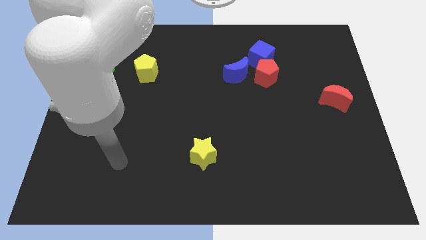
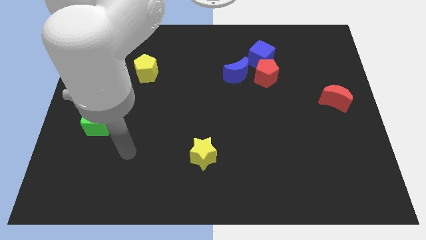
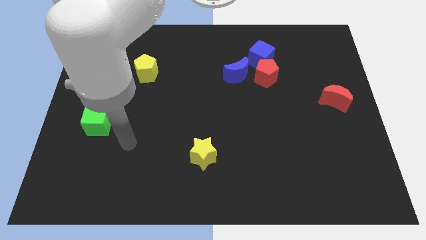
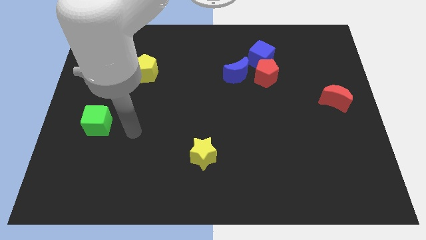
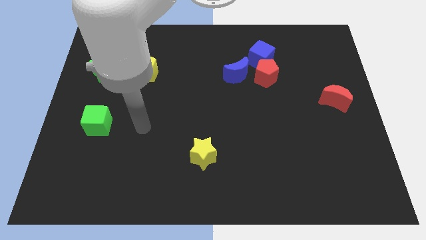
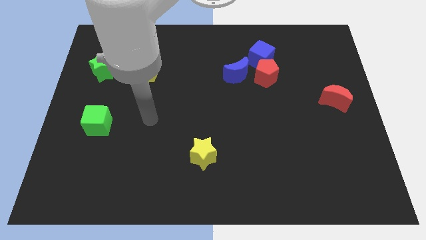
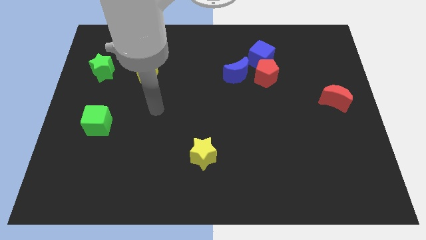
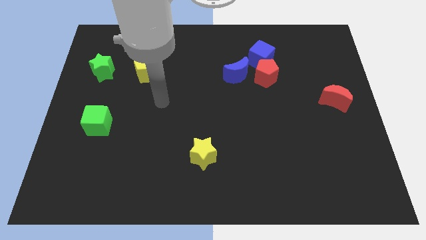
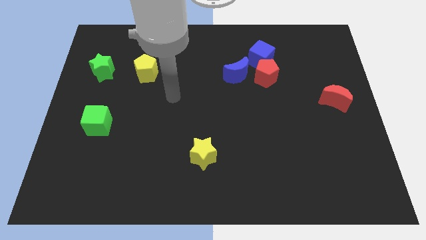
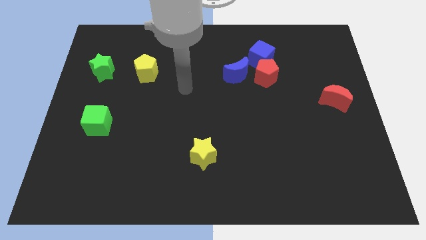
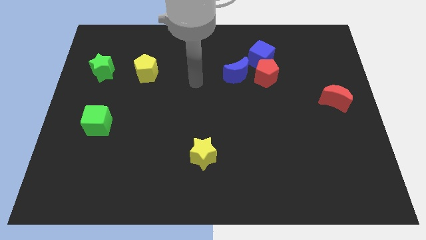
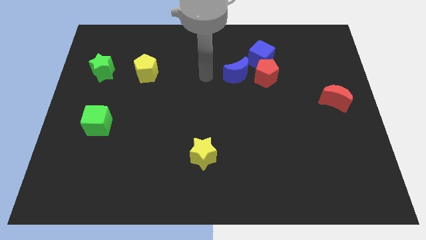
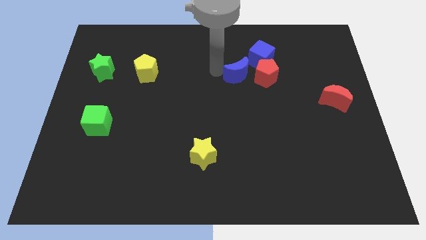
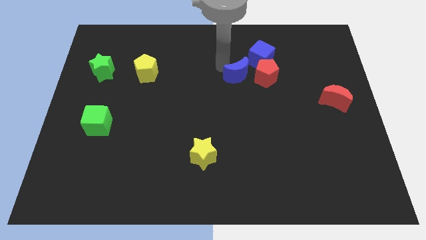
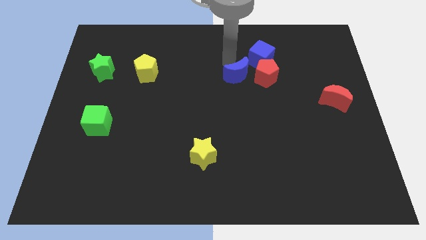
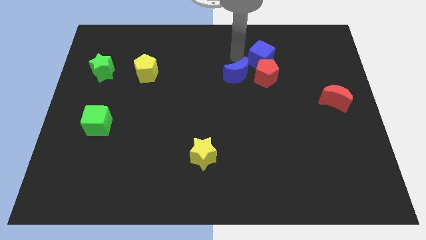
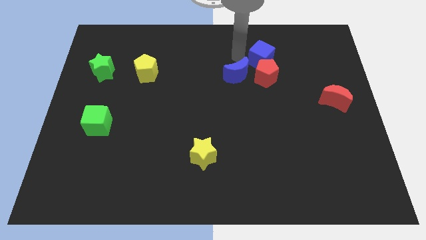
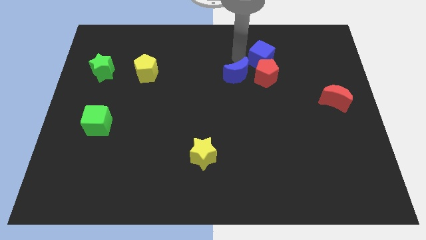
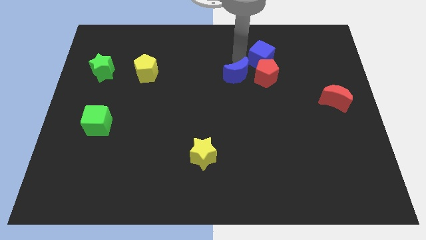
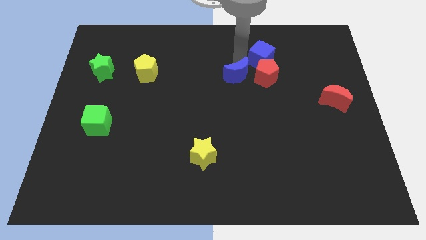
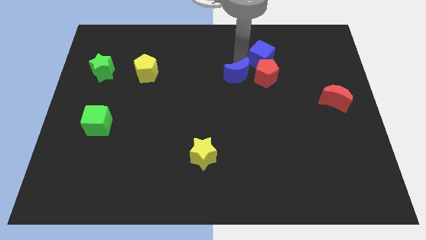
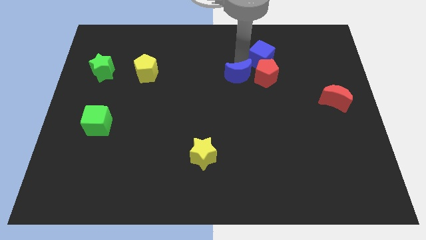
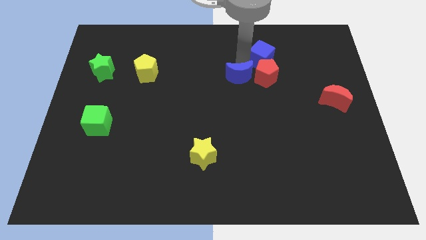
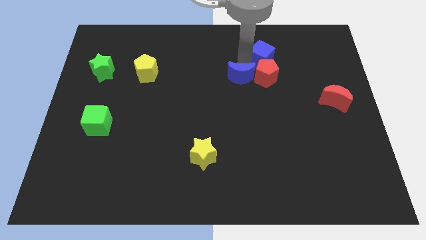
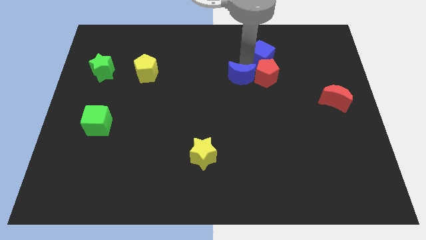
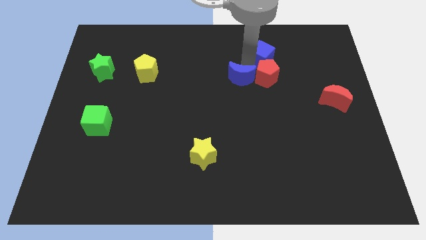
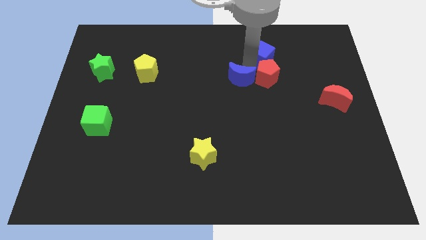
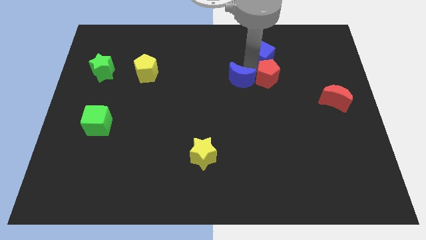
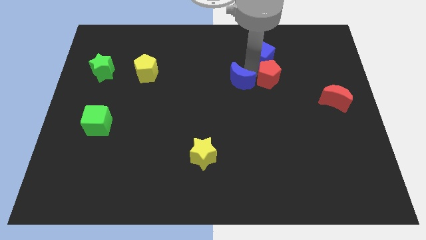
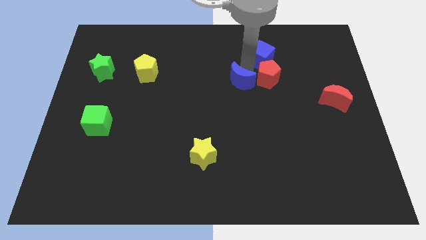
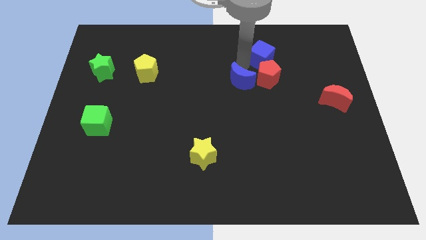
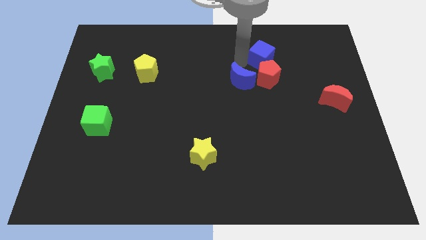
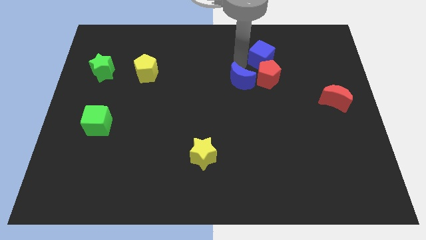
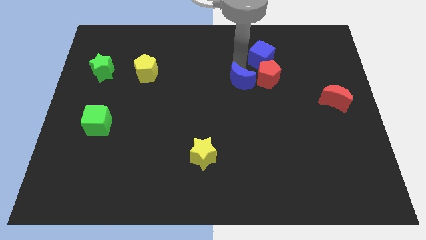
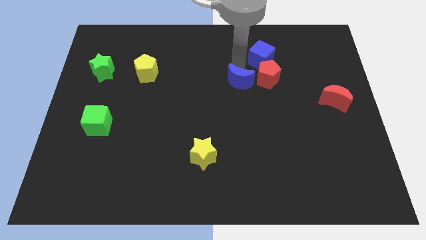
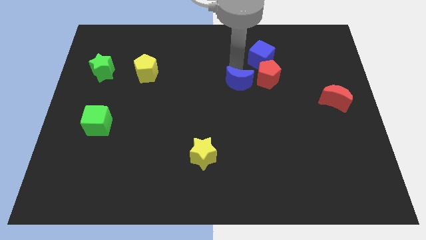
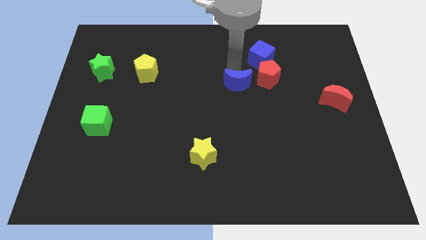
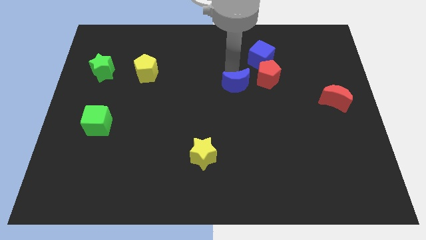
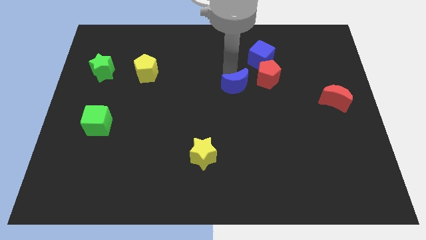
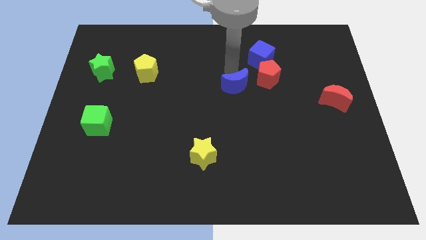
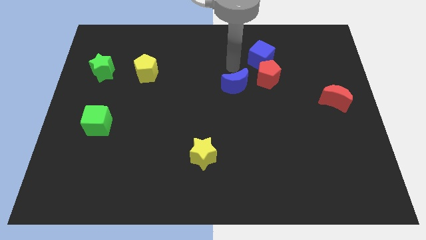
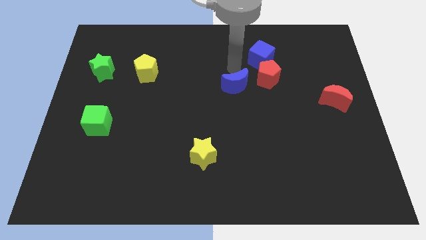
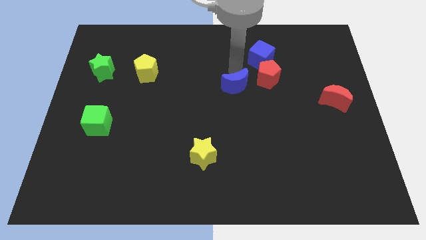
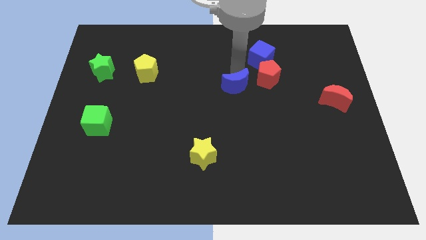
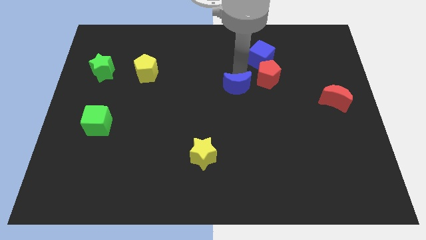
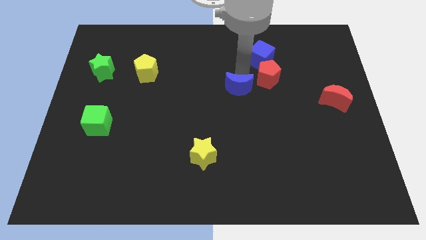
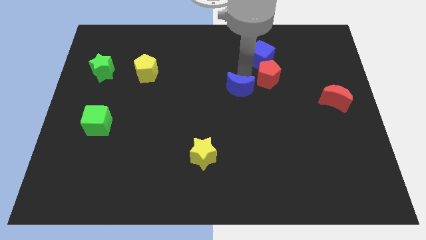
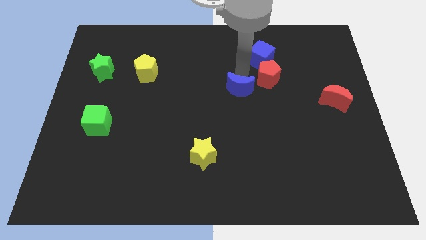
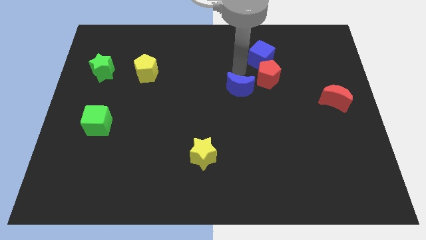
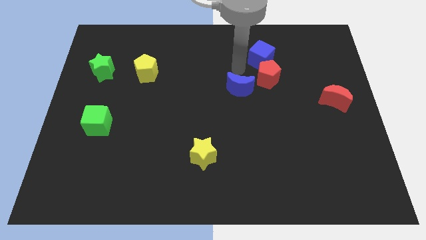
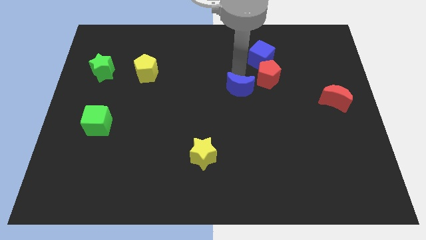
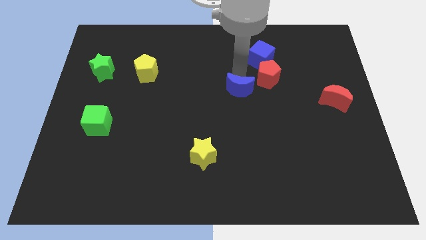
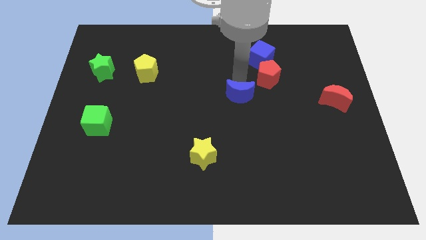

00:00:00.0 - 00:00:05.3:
push the blue moon down somewhat

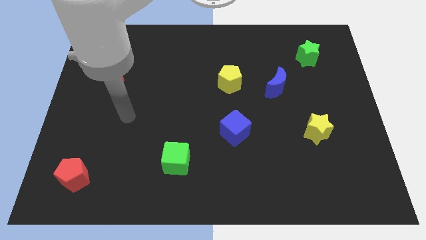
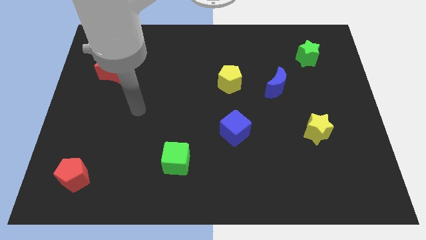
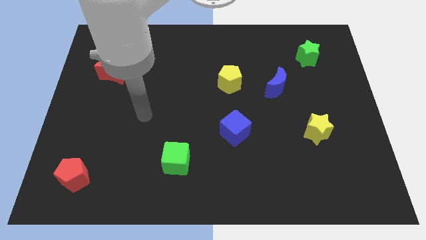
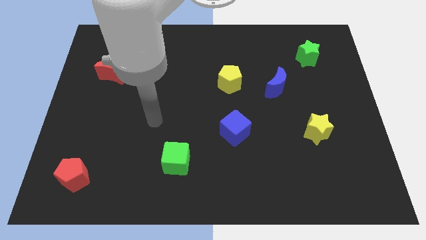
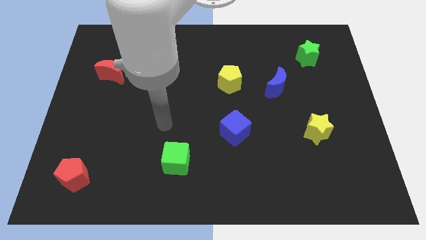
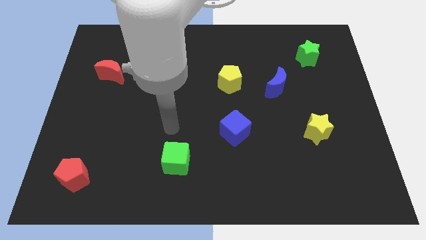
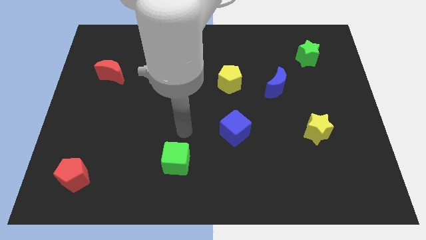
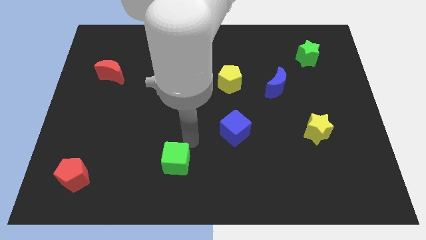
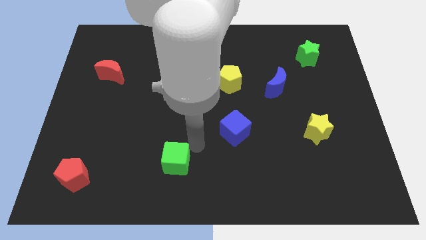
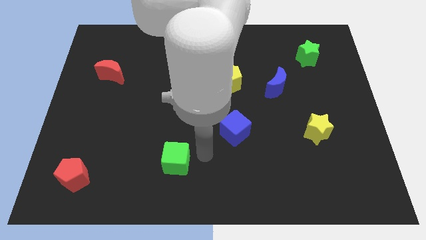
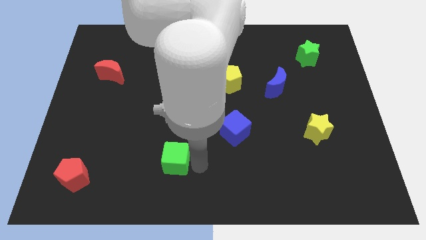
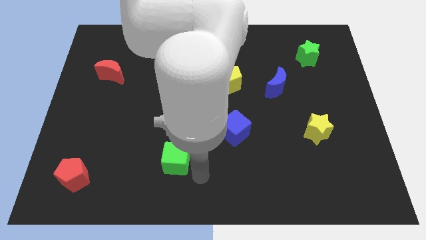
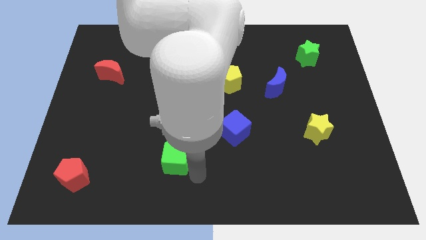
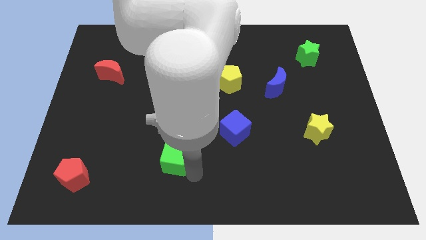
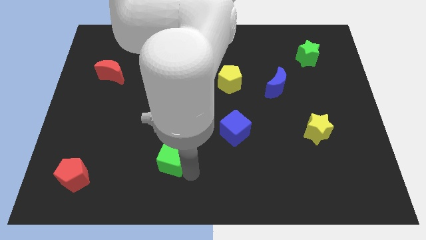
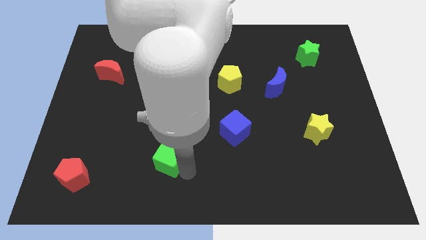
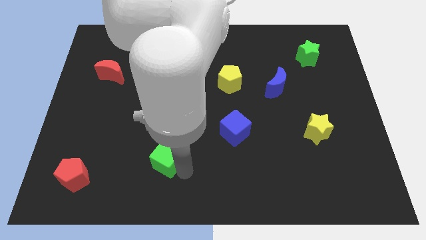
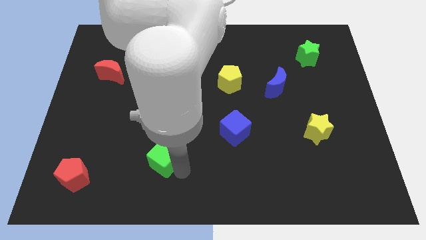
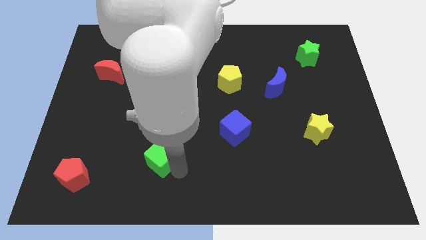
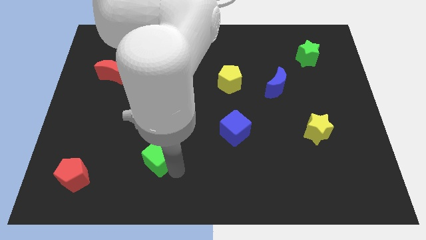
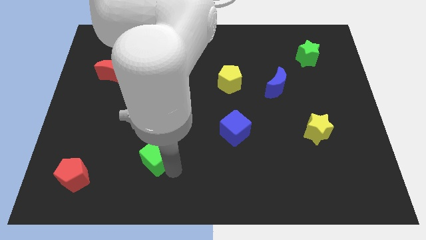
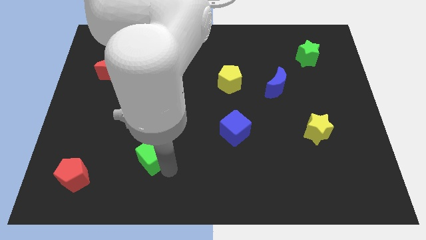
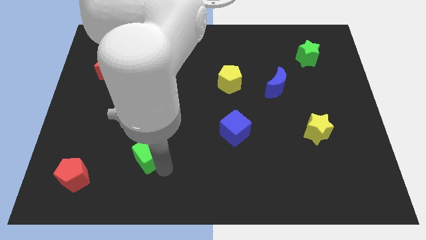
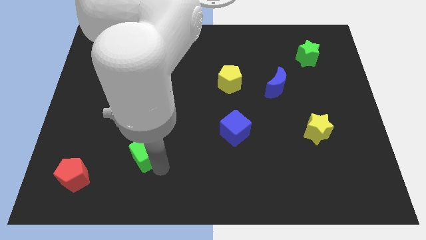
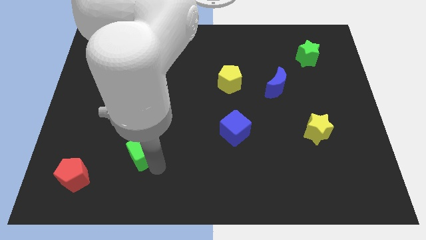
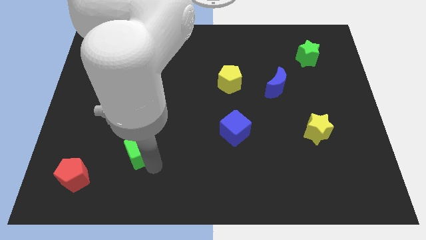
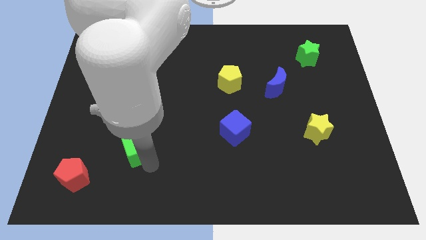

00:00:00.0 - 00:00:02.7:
push the green cube up and left a little bit
